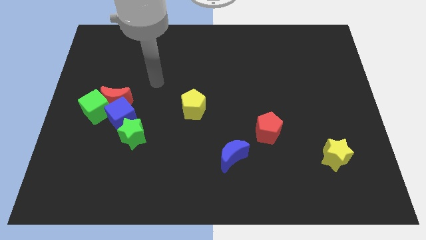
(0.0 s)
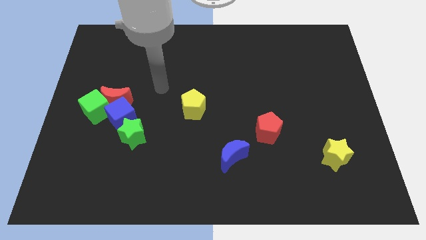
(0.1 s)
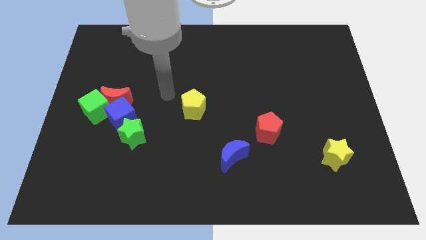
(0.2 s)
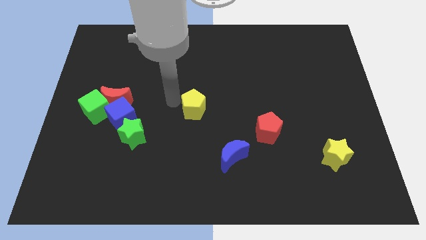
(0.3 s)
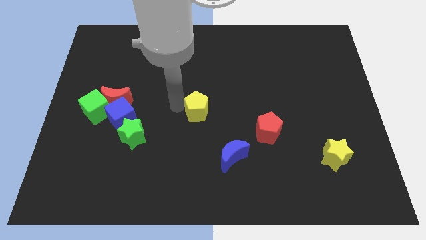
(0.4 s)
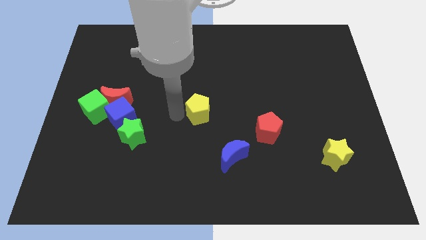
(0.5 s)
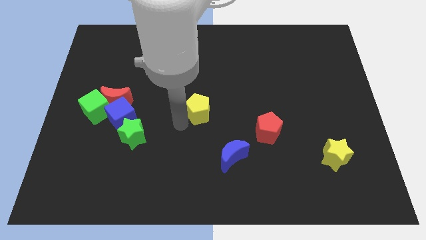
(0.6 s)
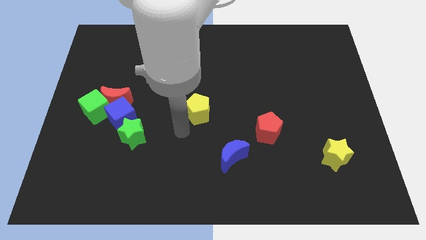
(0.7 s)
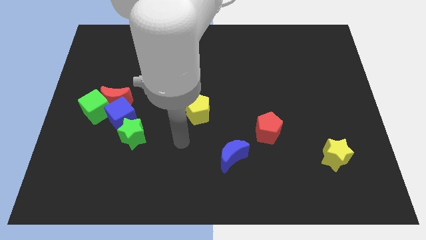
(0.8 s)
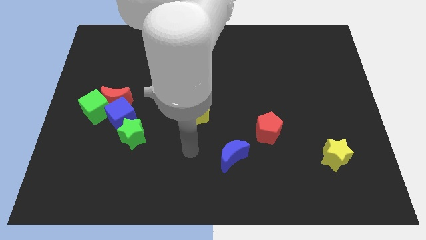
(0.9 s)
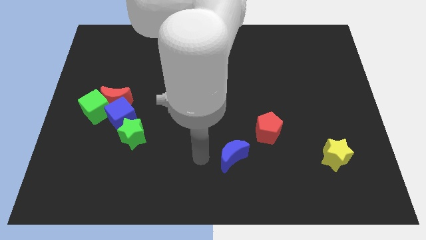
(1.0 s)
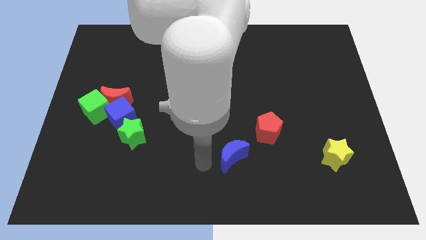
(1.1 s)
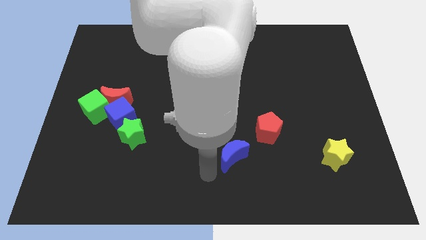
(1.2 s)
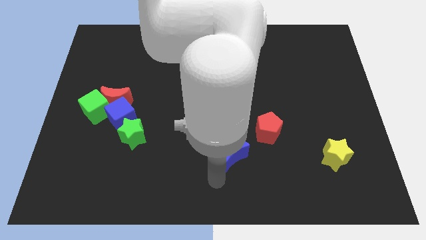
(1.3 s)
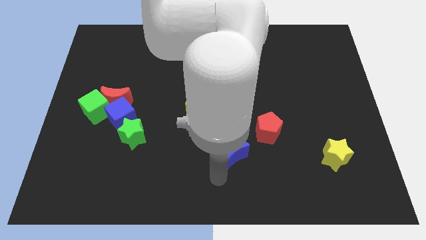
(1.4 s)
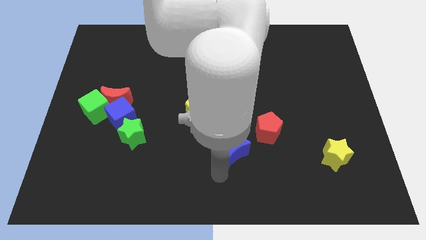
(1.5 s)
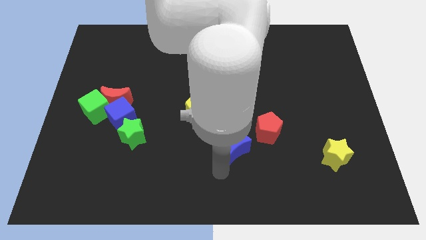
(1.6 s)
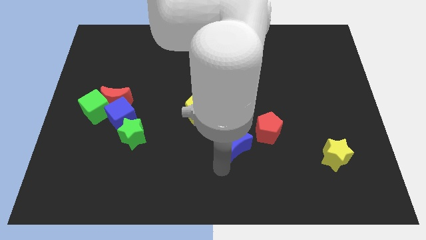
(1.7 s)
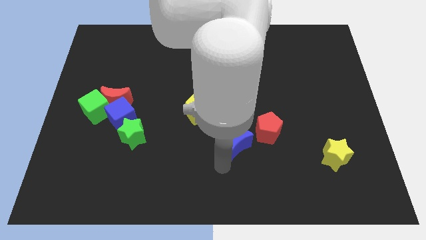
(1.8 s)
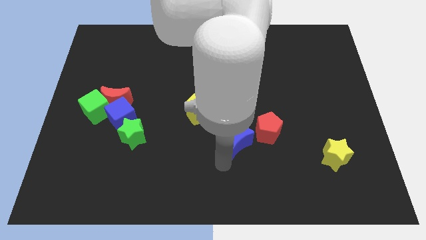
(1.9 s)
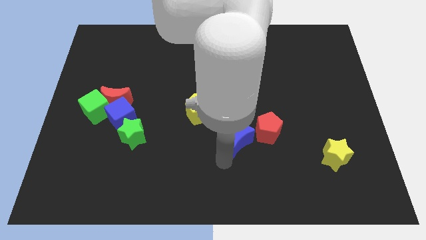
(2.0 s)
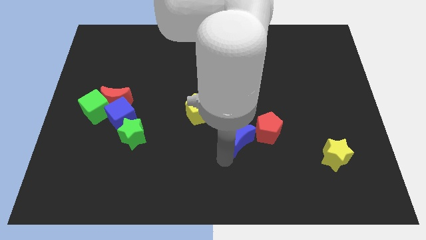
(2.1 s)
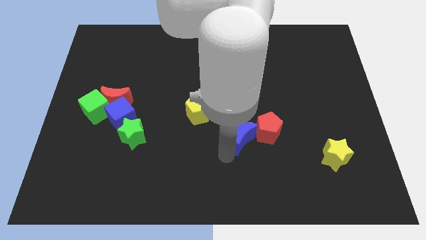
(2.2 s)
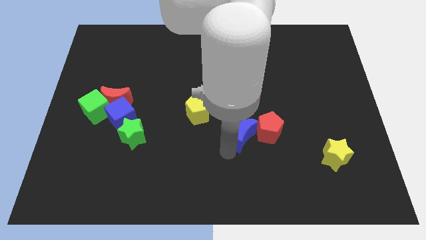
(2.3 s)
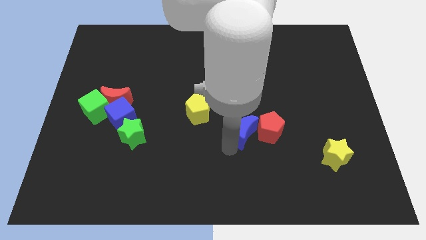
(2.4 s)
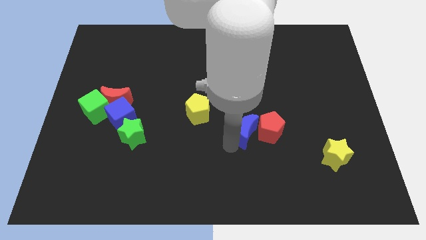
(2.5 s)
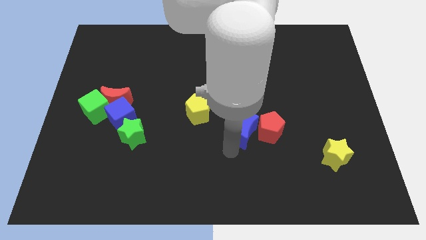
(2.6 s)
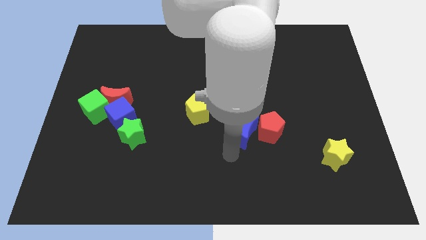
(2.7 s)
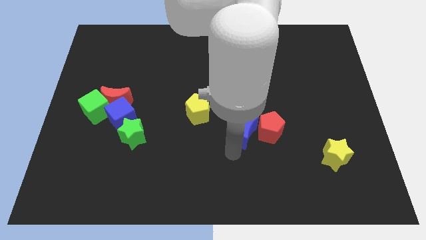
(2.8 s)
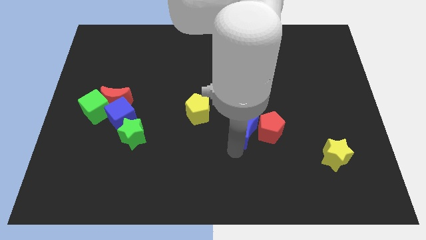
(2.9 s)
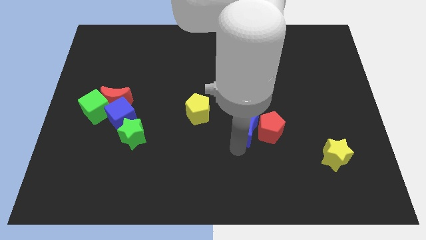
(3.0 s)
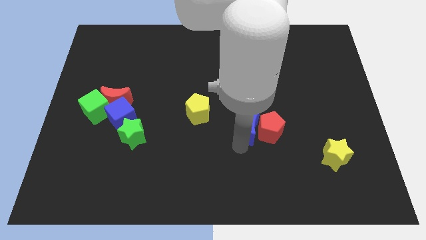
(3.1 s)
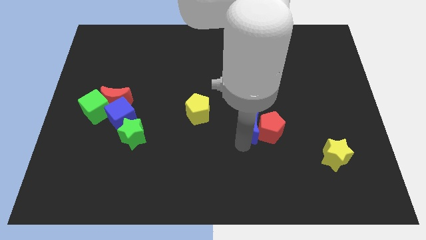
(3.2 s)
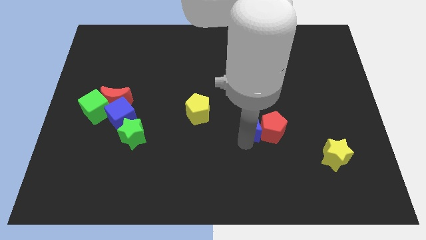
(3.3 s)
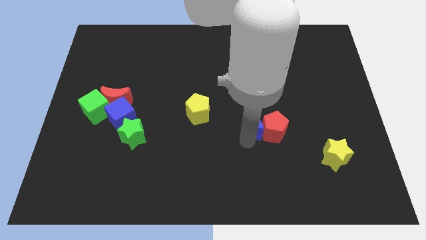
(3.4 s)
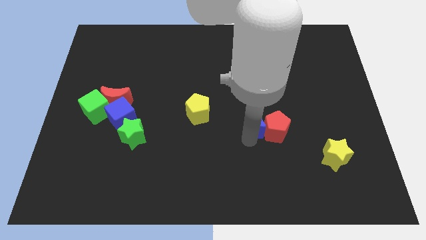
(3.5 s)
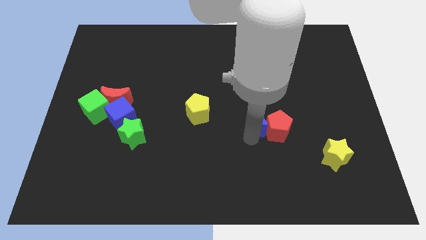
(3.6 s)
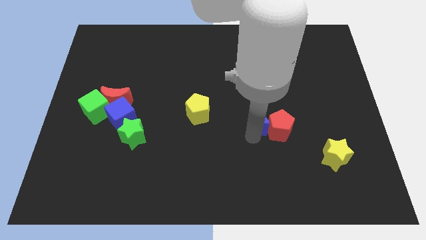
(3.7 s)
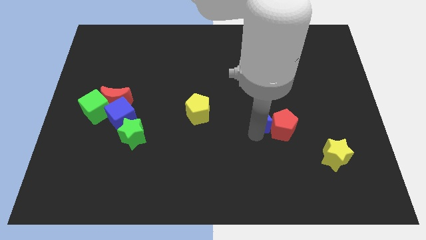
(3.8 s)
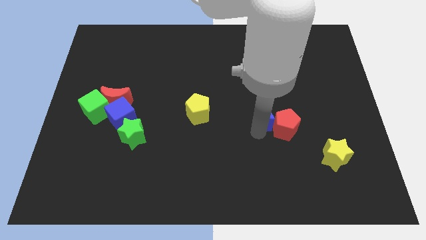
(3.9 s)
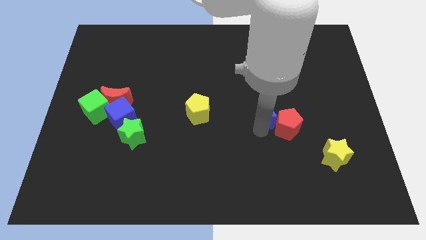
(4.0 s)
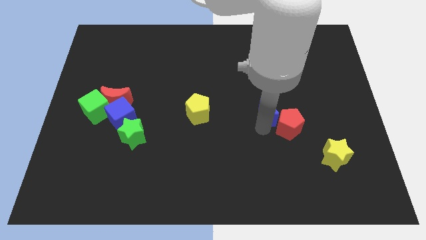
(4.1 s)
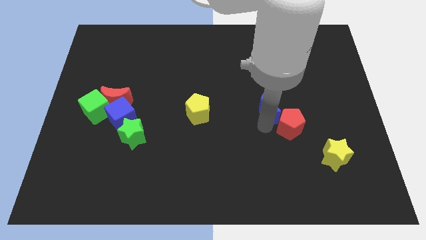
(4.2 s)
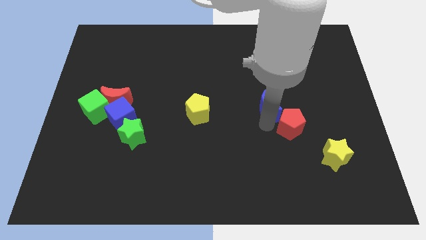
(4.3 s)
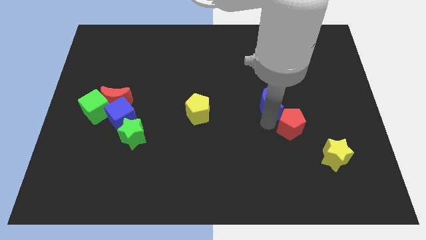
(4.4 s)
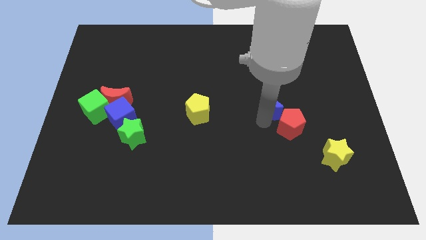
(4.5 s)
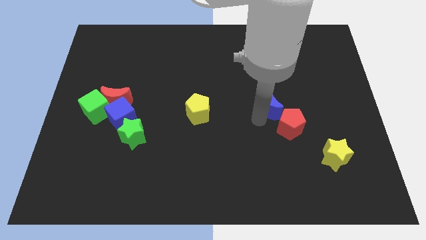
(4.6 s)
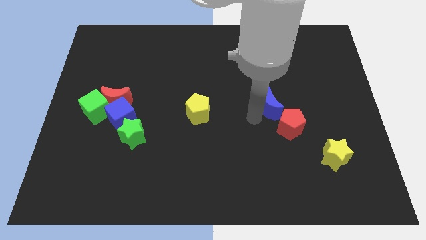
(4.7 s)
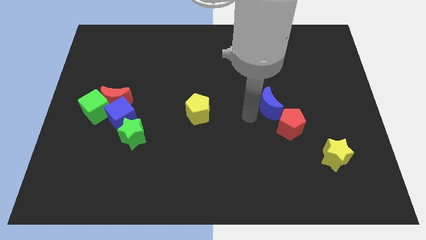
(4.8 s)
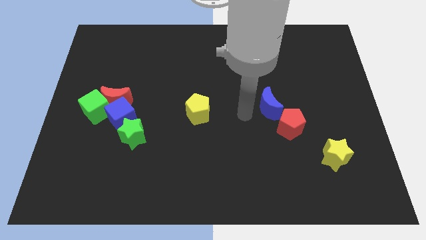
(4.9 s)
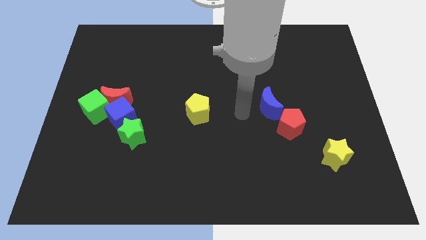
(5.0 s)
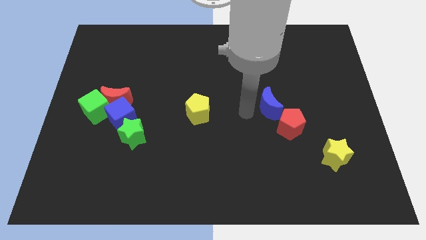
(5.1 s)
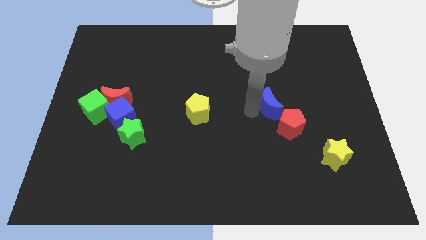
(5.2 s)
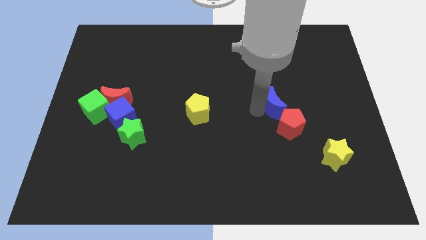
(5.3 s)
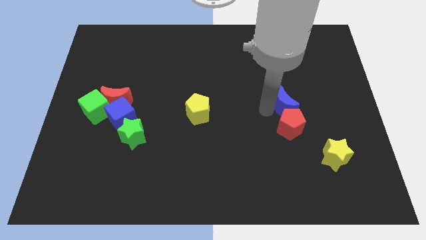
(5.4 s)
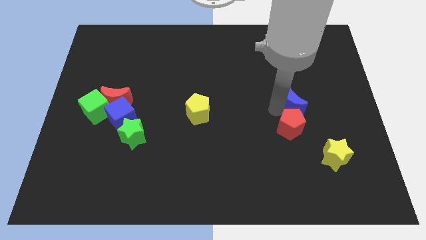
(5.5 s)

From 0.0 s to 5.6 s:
slide the blue moon up and to the right diagonally

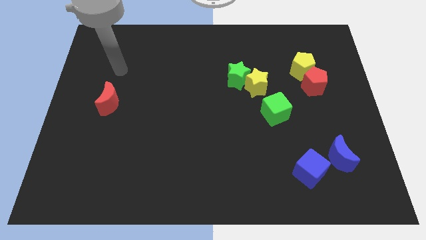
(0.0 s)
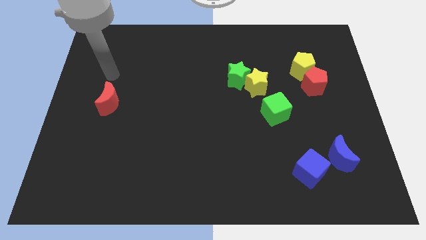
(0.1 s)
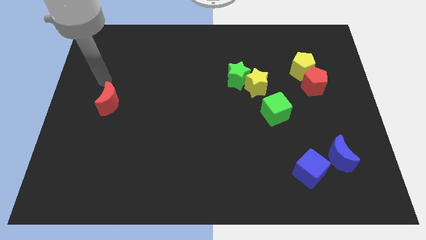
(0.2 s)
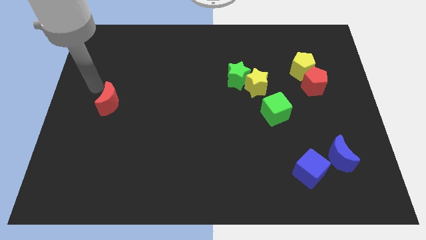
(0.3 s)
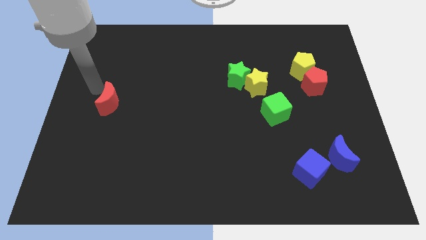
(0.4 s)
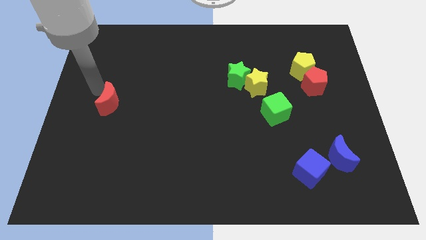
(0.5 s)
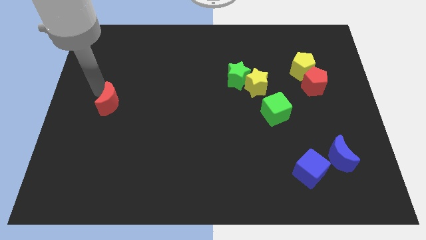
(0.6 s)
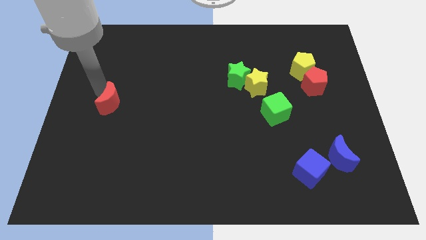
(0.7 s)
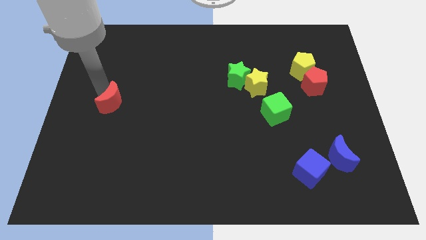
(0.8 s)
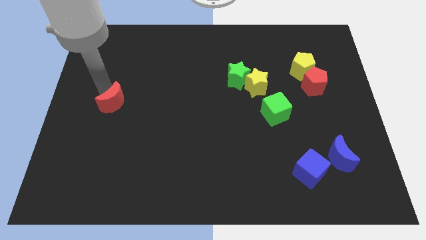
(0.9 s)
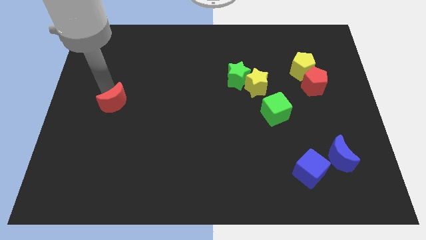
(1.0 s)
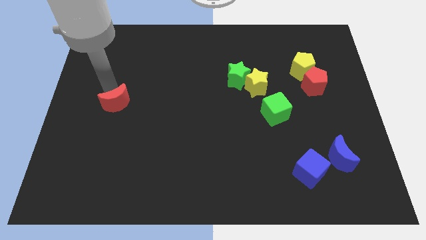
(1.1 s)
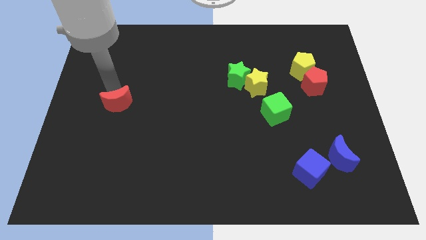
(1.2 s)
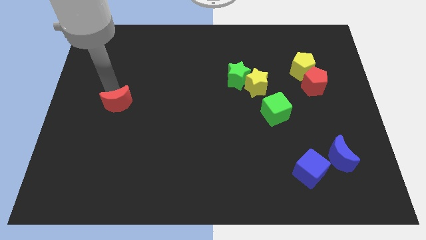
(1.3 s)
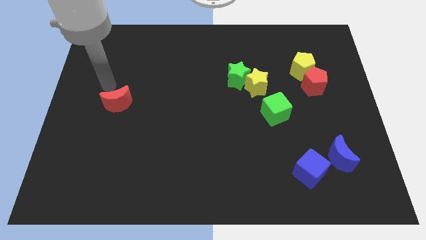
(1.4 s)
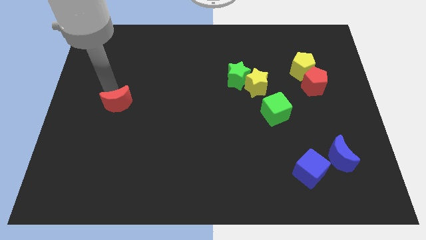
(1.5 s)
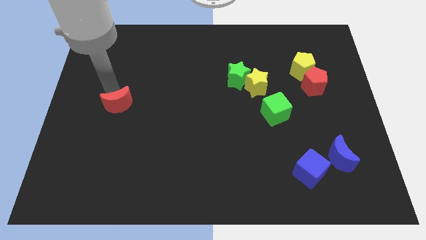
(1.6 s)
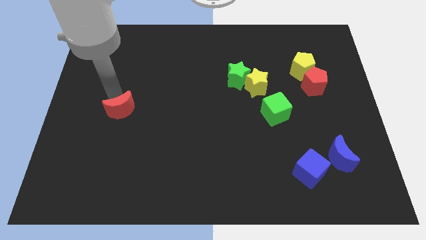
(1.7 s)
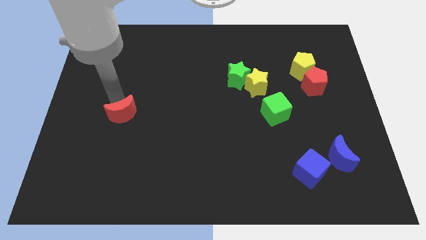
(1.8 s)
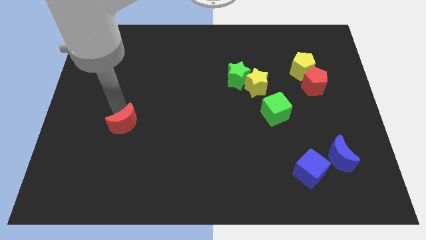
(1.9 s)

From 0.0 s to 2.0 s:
push the red moon somewhat down and right diagonally

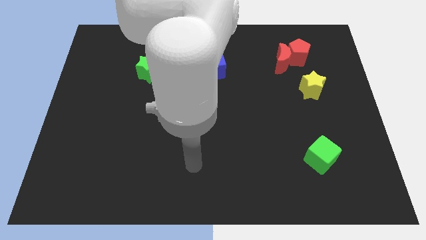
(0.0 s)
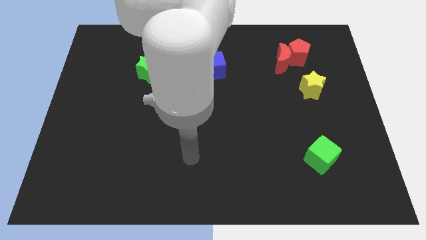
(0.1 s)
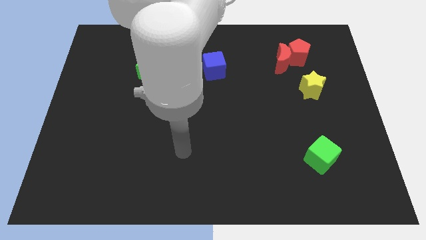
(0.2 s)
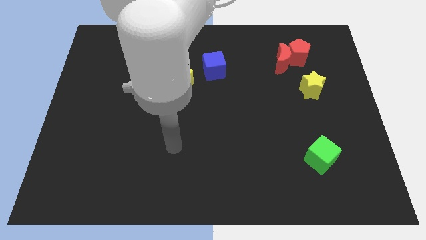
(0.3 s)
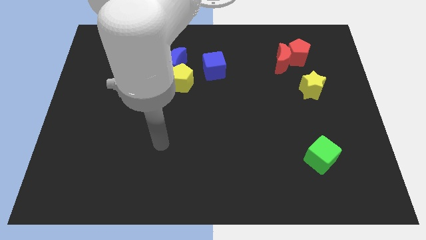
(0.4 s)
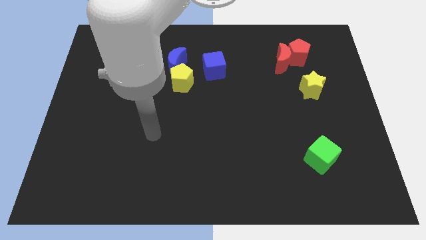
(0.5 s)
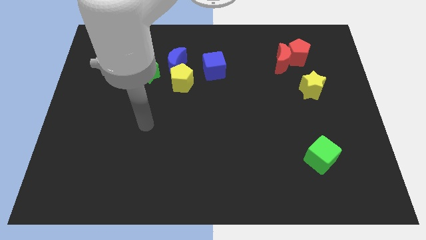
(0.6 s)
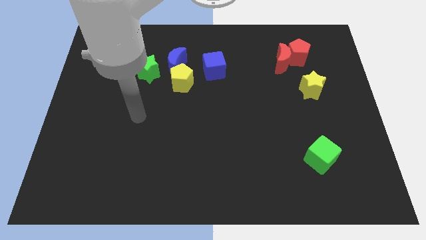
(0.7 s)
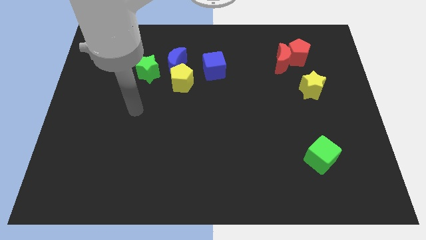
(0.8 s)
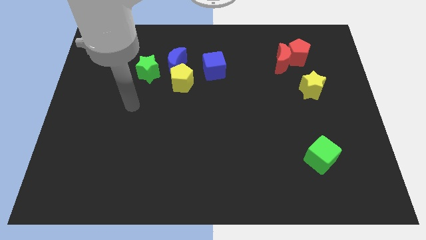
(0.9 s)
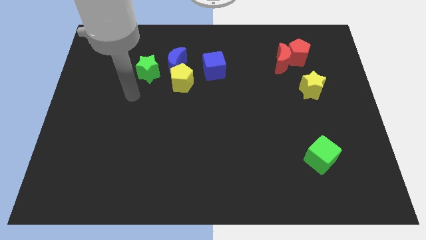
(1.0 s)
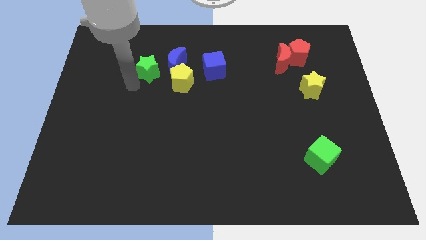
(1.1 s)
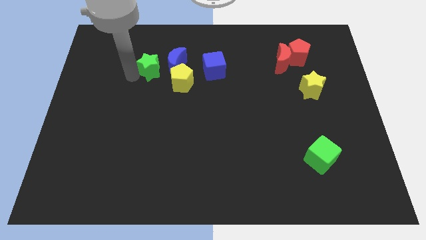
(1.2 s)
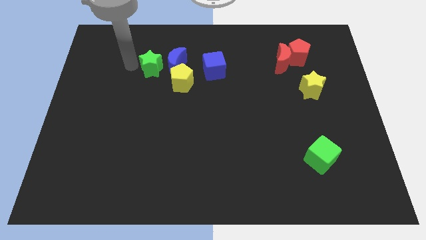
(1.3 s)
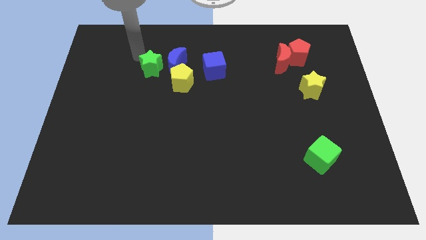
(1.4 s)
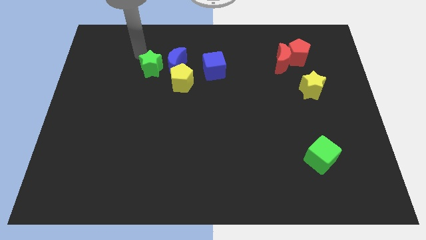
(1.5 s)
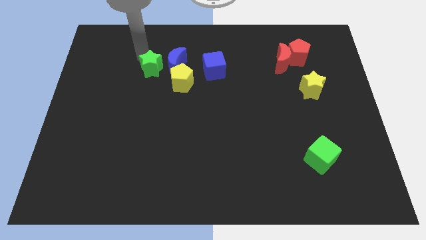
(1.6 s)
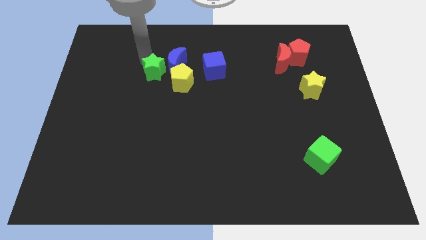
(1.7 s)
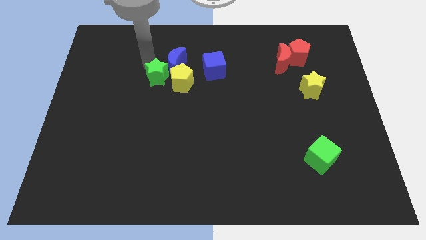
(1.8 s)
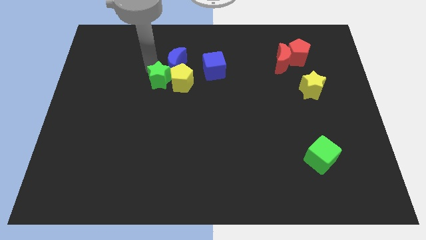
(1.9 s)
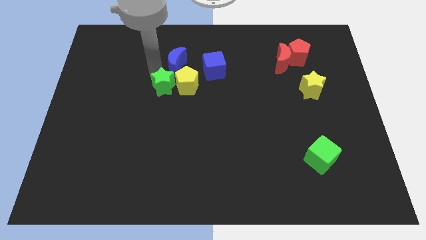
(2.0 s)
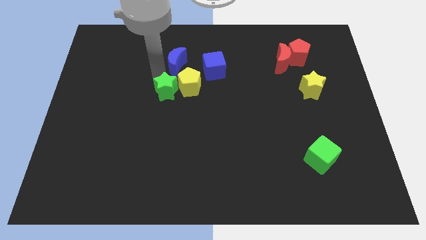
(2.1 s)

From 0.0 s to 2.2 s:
move the green star slightly diagonally down and to the right
